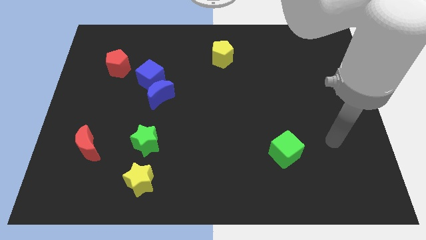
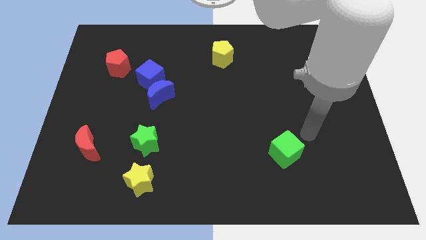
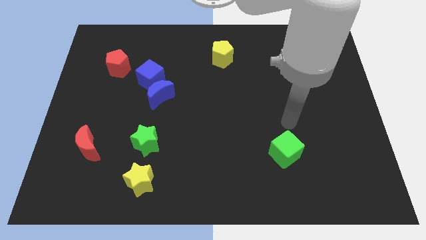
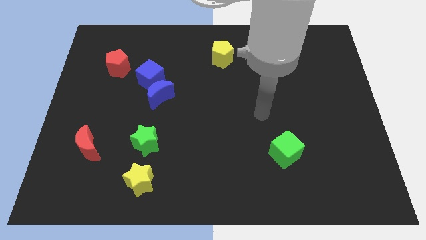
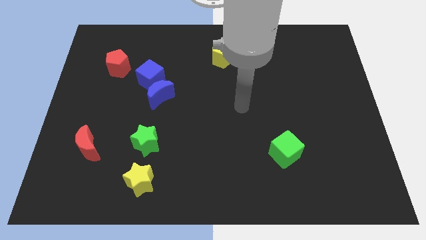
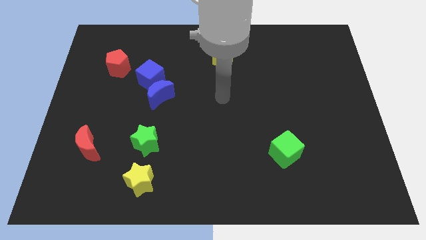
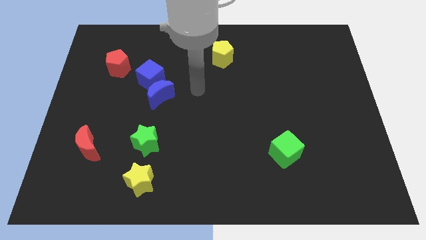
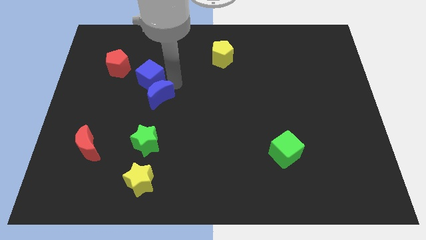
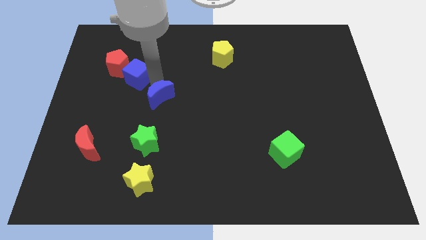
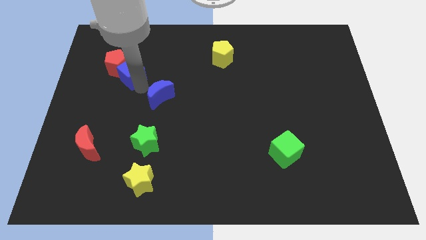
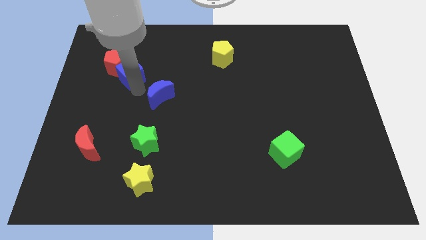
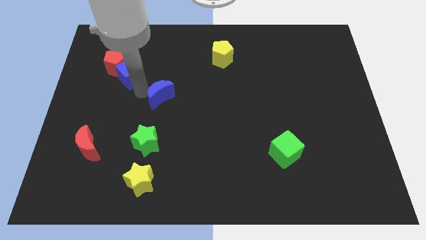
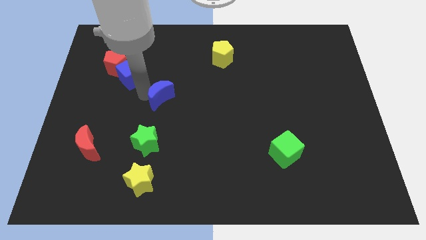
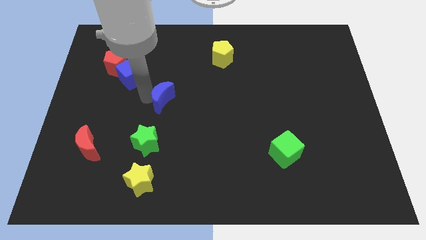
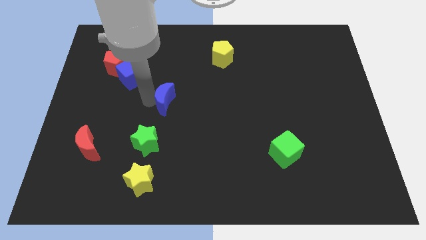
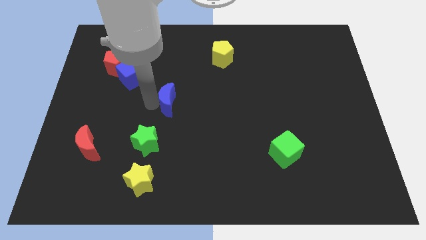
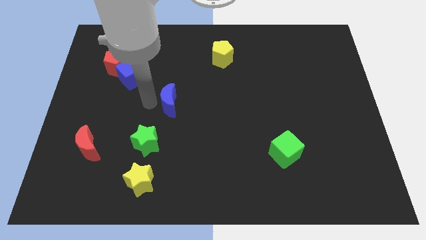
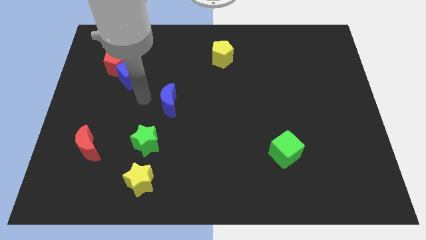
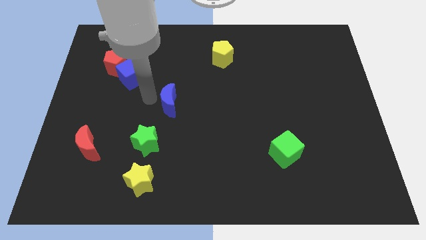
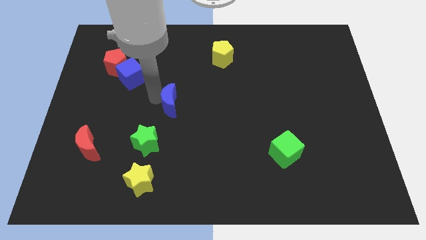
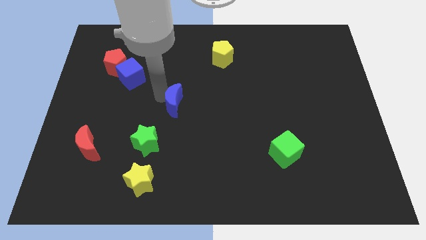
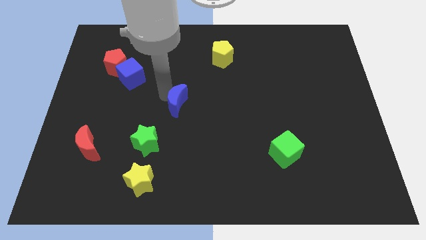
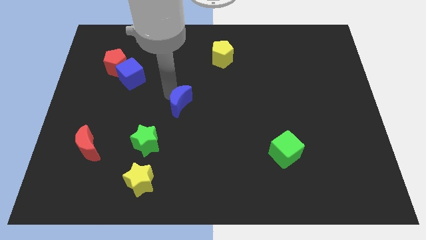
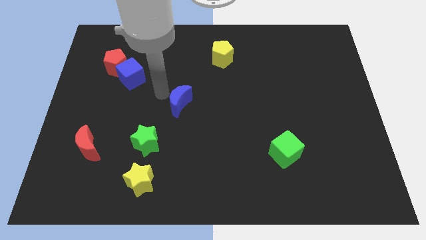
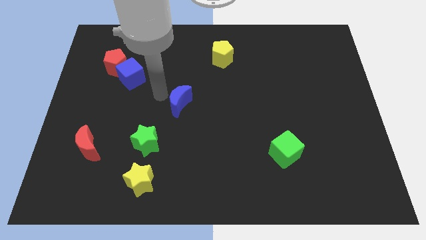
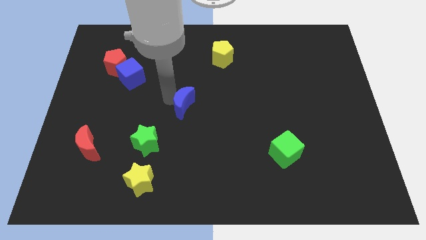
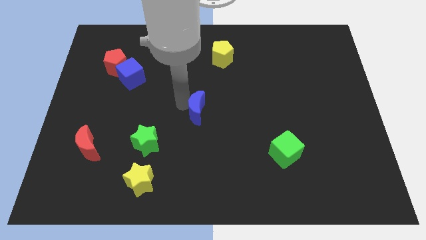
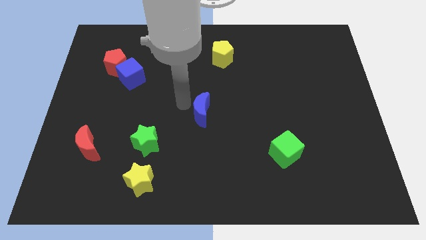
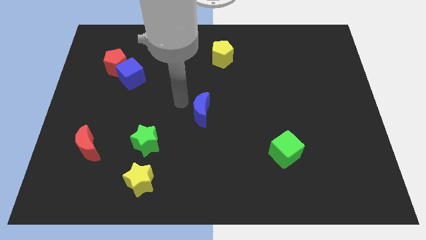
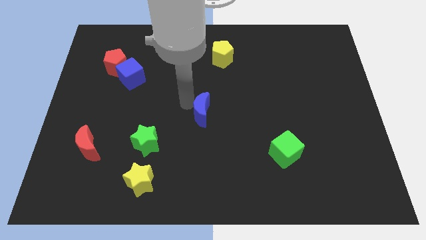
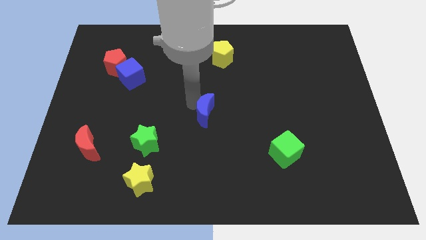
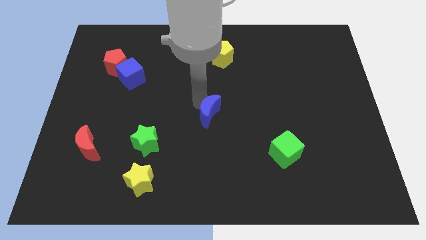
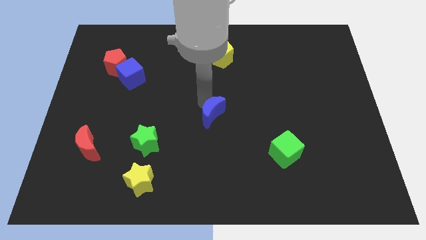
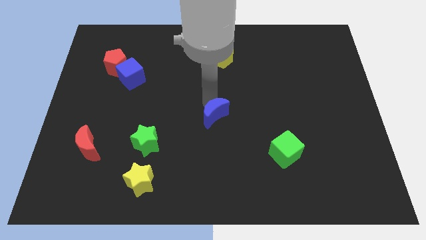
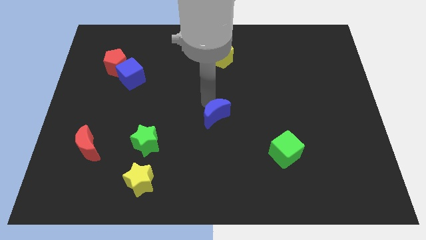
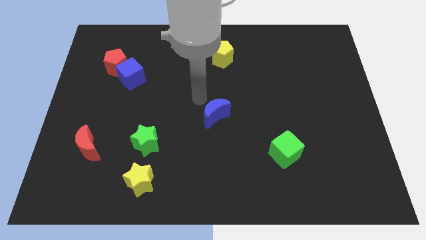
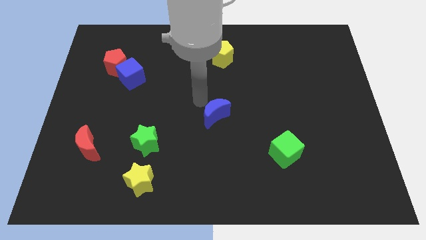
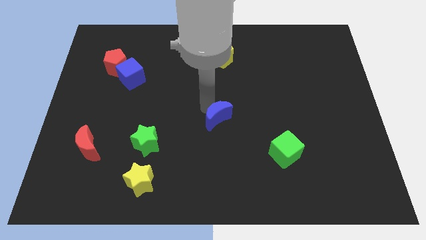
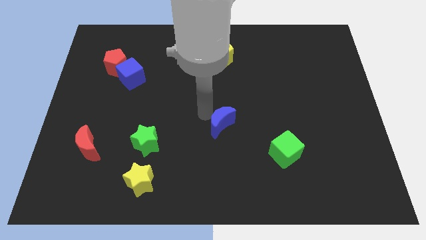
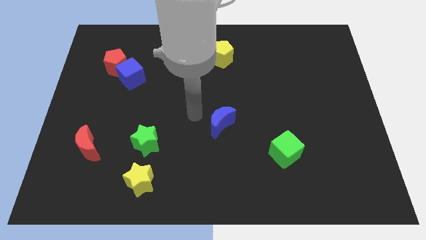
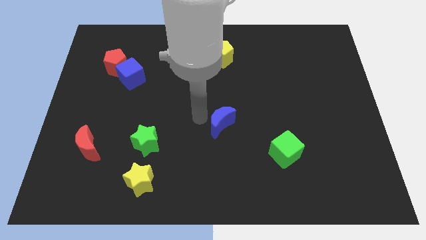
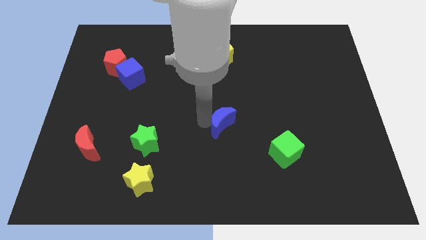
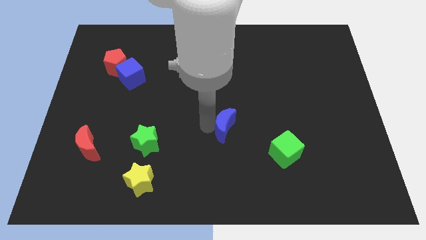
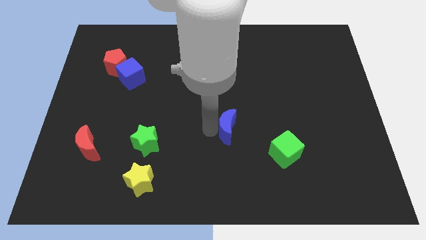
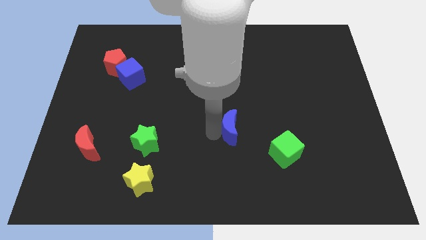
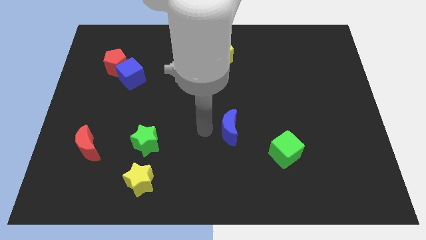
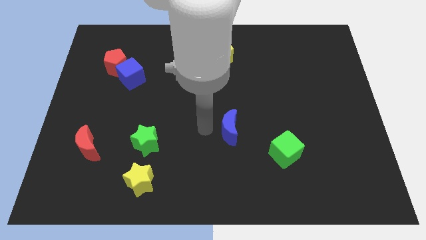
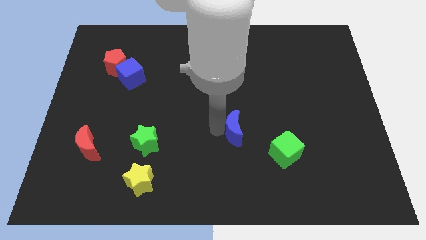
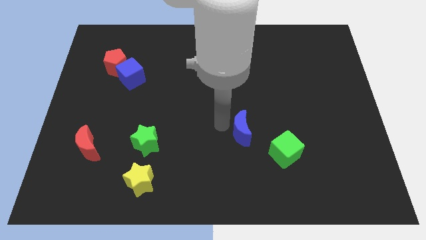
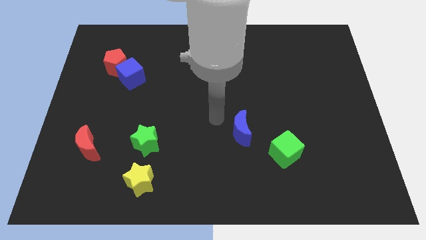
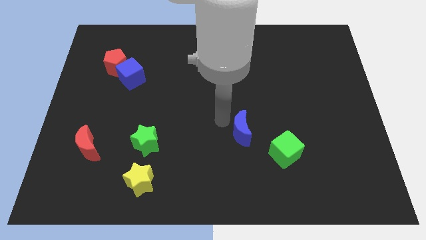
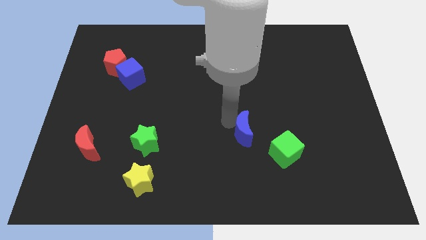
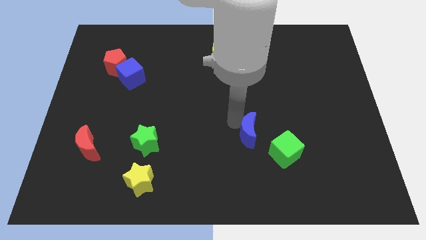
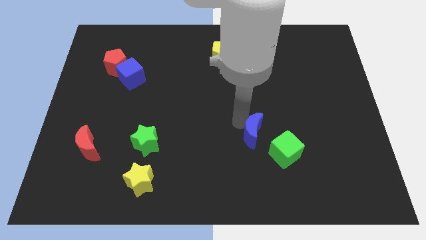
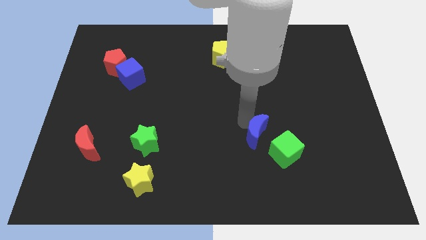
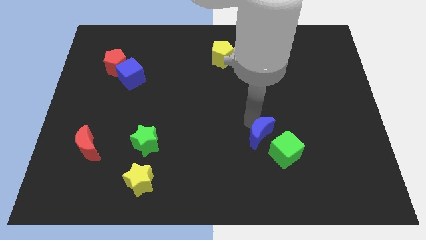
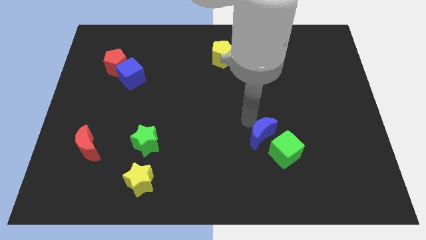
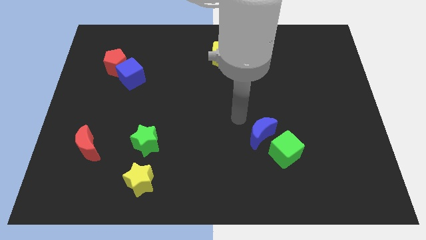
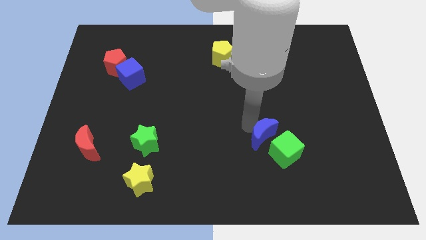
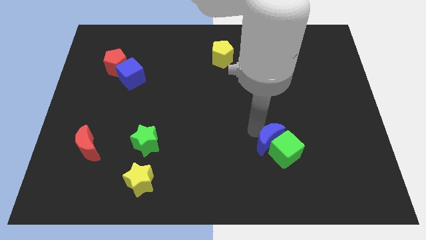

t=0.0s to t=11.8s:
move the blue moon to the green cube

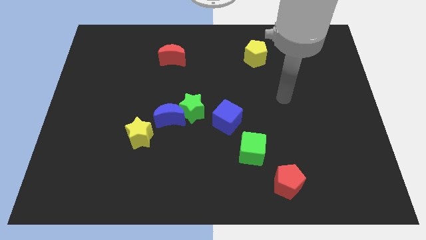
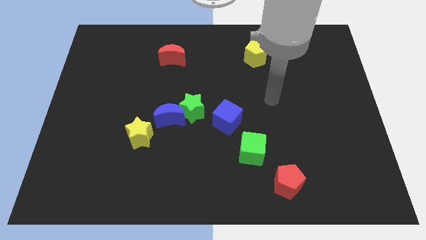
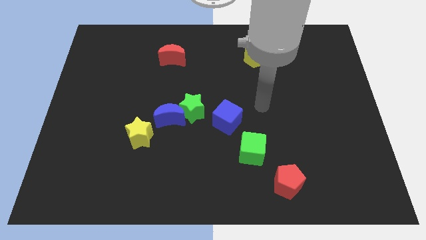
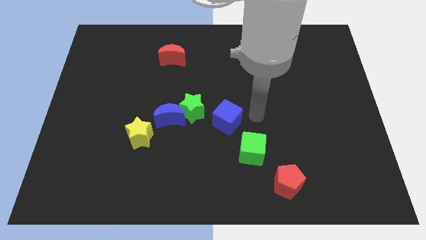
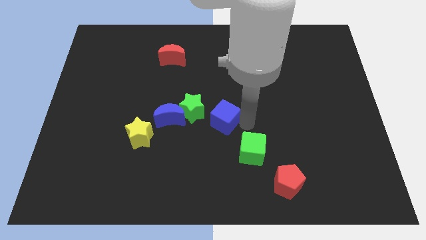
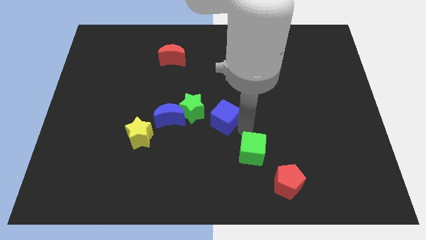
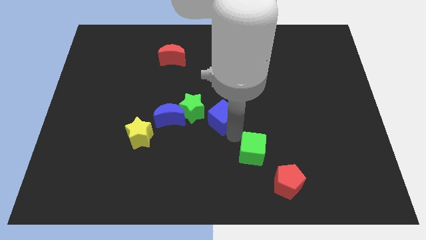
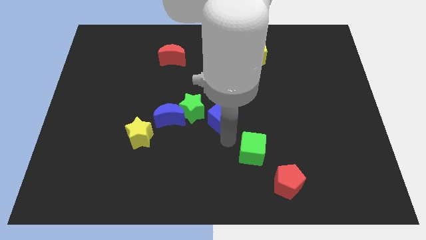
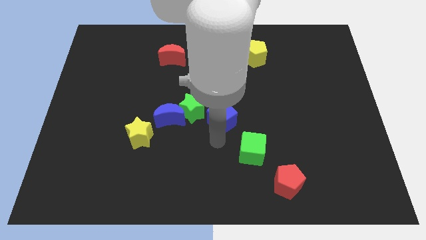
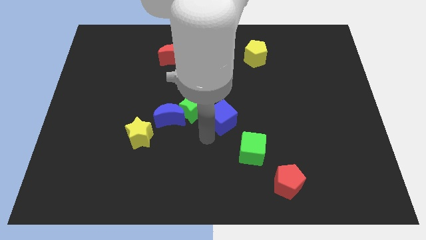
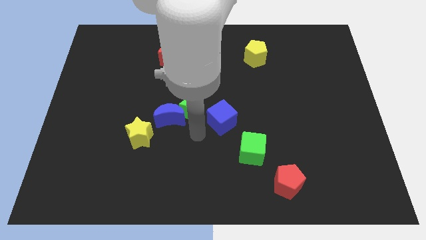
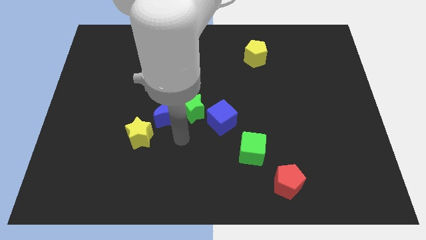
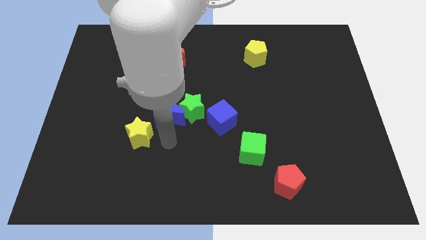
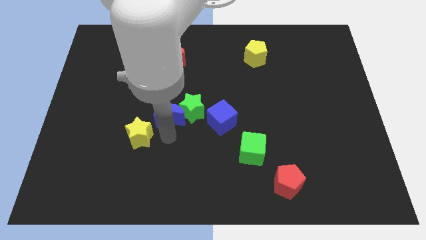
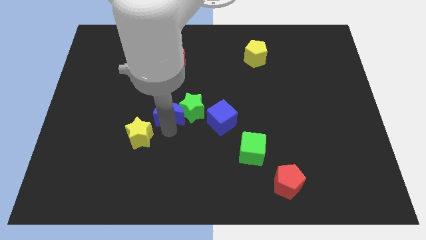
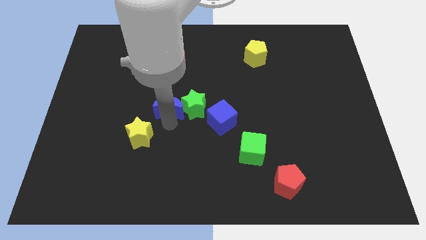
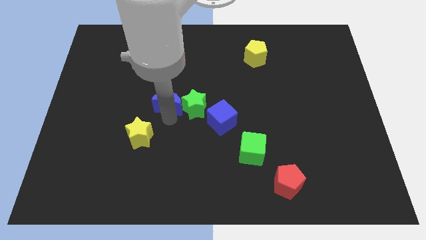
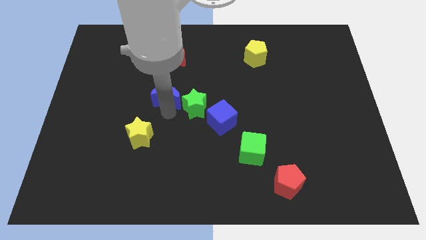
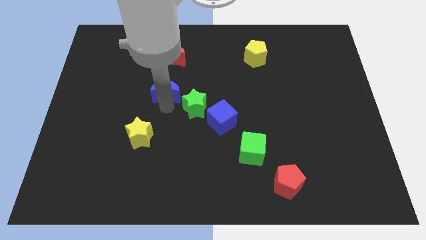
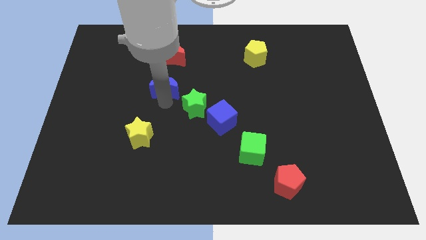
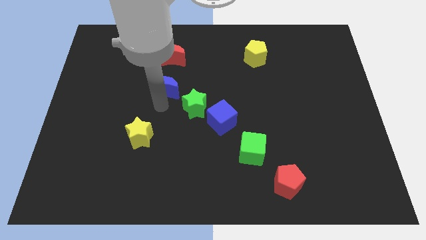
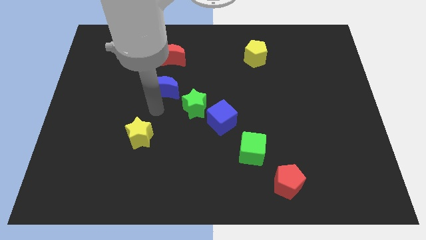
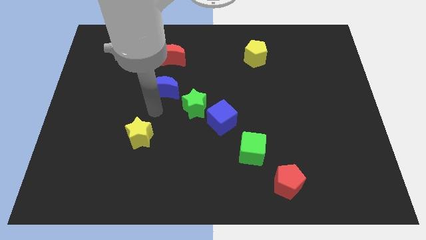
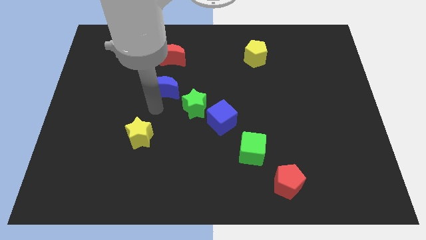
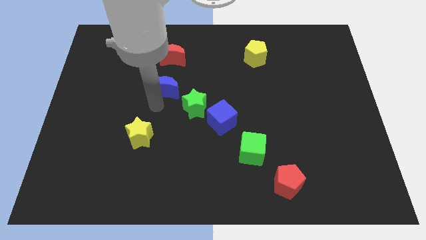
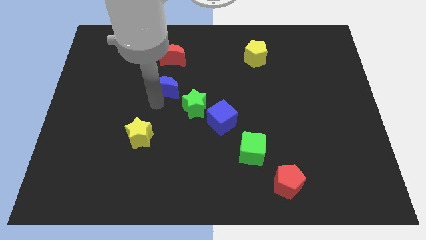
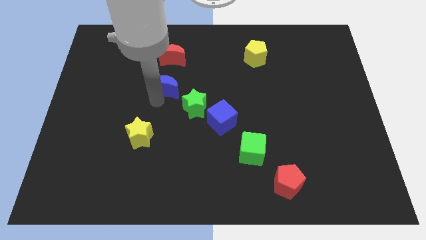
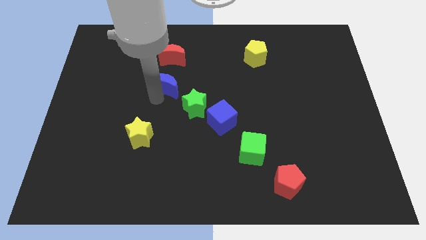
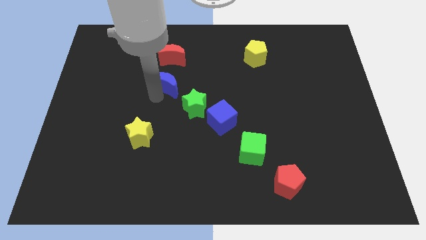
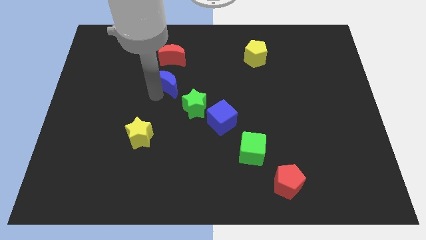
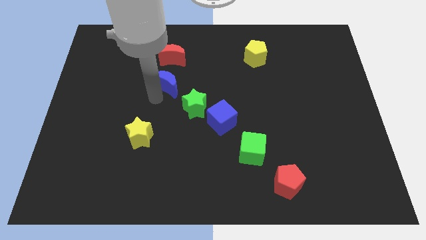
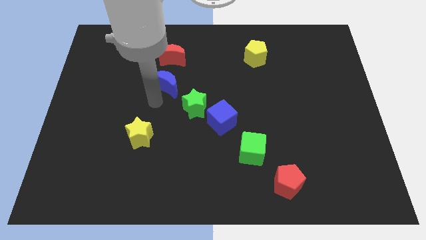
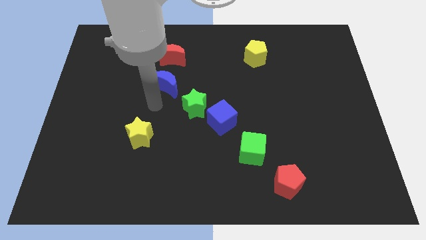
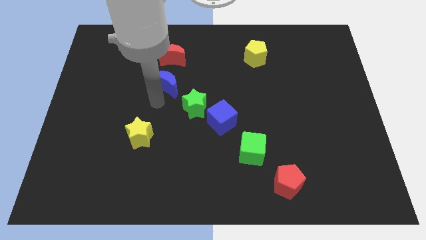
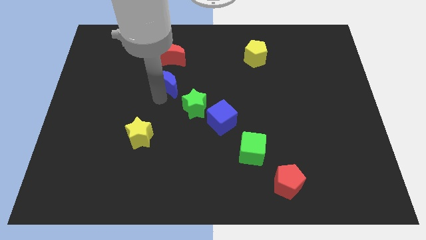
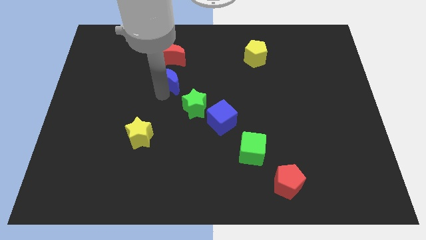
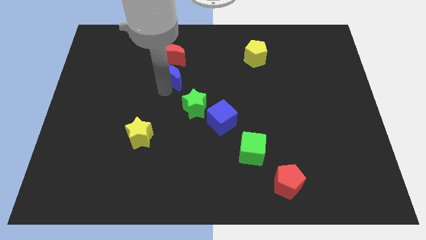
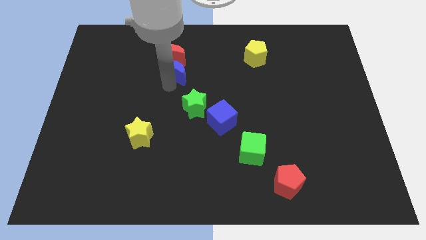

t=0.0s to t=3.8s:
push the blue moon next to the red moon
